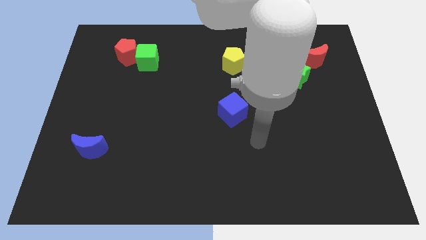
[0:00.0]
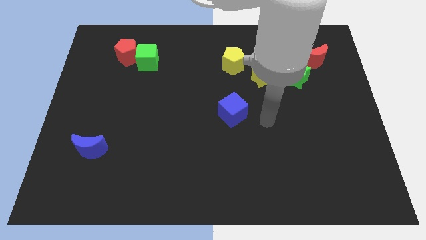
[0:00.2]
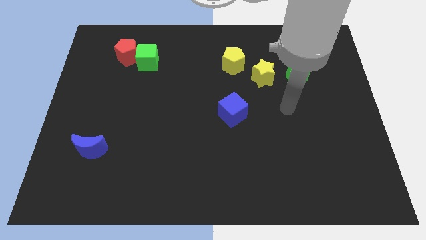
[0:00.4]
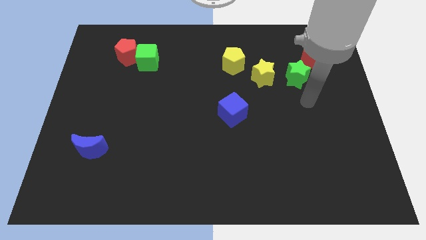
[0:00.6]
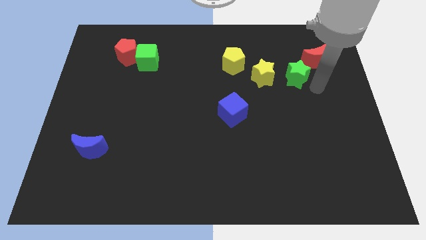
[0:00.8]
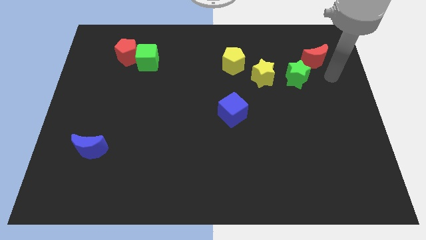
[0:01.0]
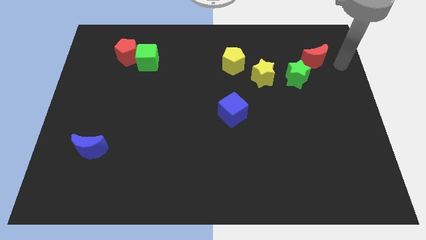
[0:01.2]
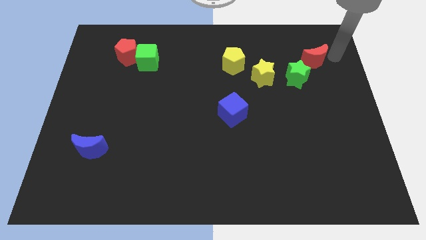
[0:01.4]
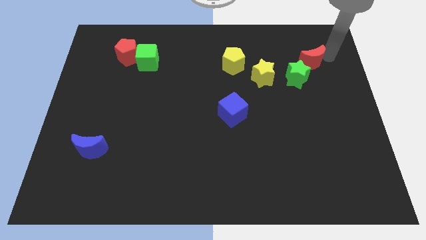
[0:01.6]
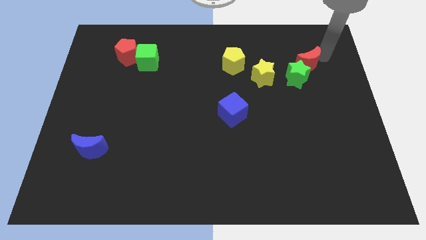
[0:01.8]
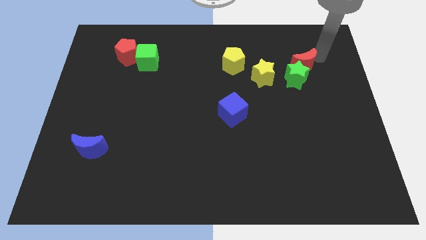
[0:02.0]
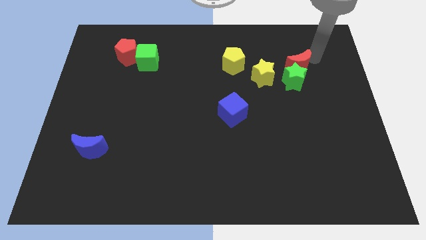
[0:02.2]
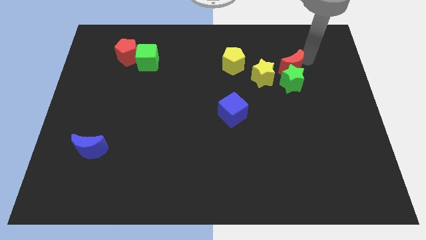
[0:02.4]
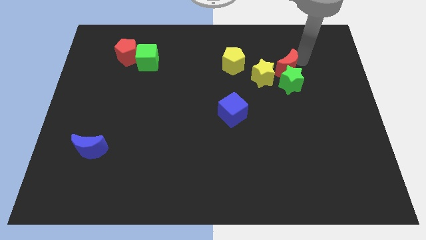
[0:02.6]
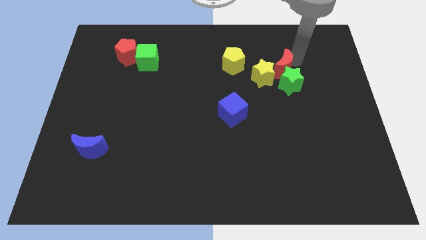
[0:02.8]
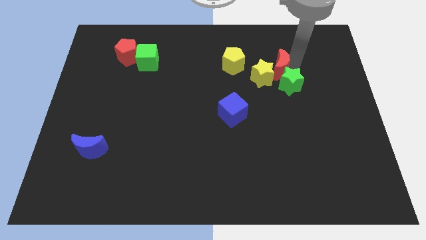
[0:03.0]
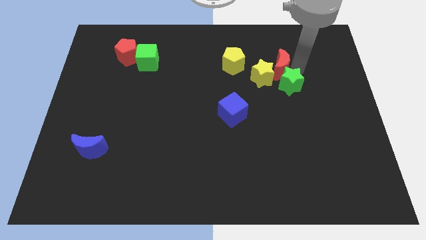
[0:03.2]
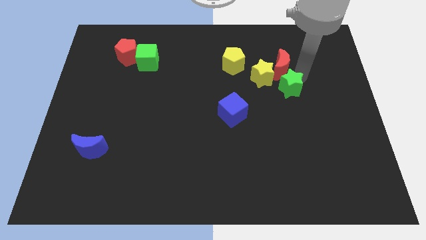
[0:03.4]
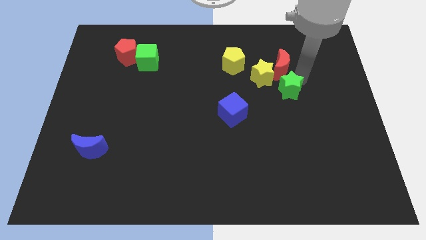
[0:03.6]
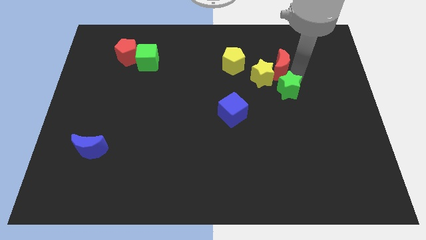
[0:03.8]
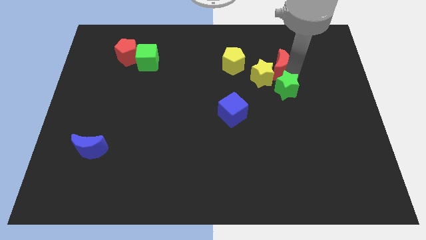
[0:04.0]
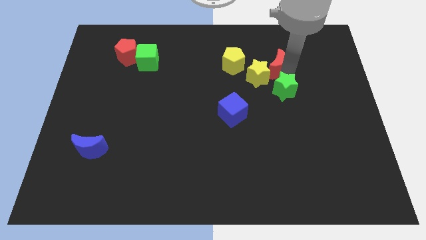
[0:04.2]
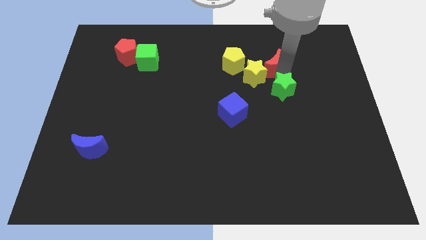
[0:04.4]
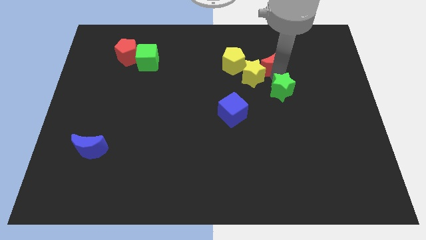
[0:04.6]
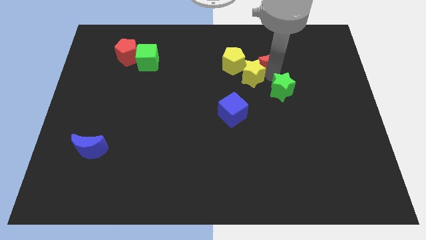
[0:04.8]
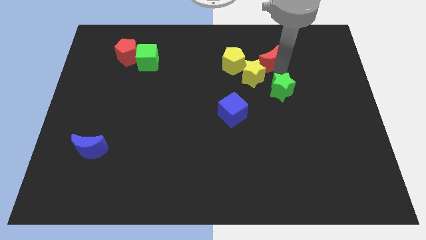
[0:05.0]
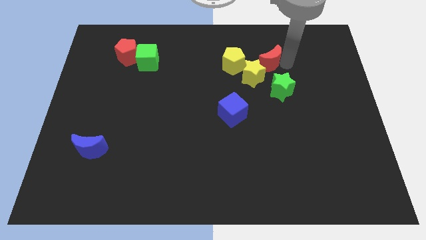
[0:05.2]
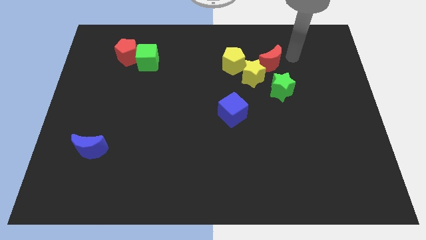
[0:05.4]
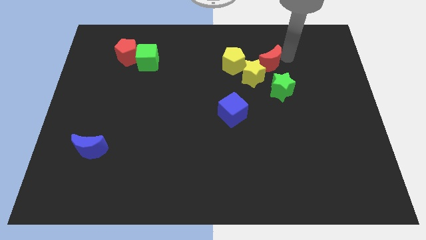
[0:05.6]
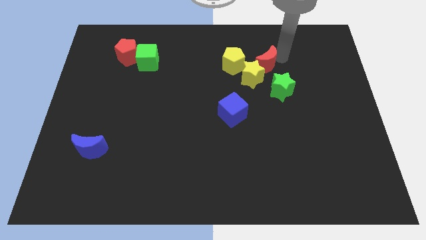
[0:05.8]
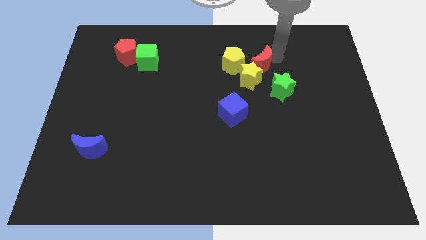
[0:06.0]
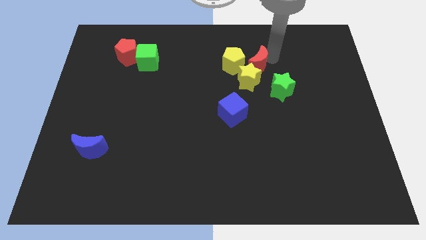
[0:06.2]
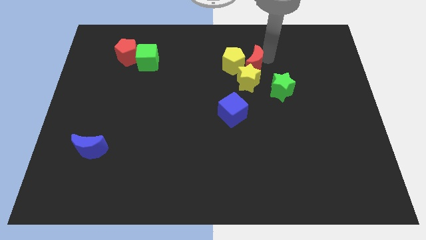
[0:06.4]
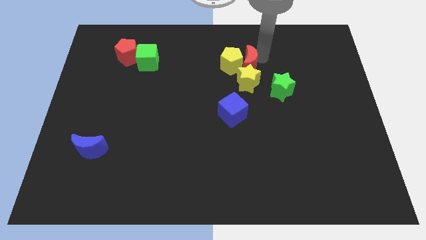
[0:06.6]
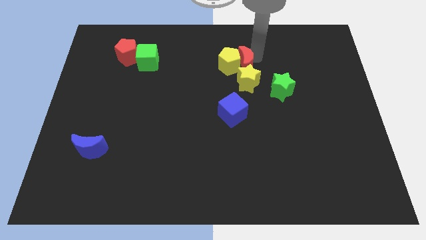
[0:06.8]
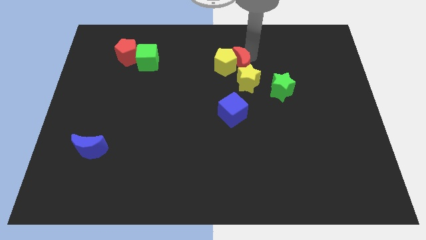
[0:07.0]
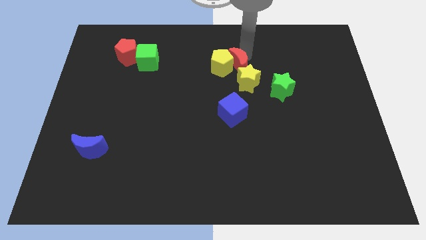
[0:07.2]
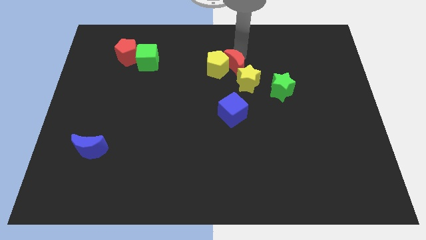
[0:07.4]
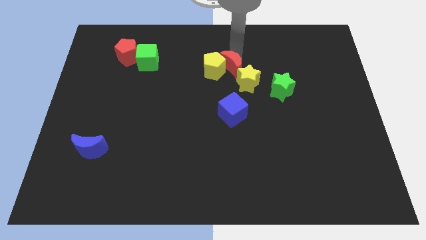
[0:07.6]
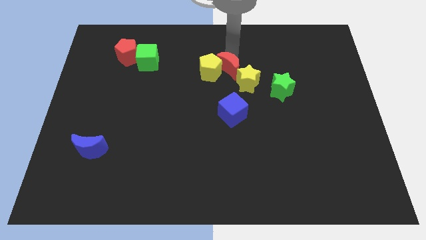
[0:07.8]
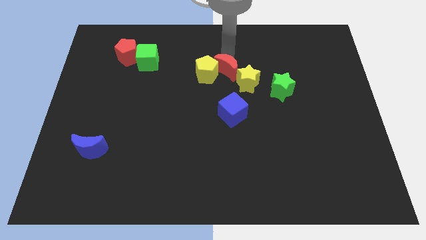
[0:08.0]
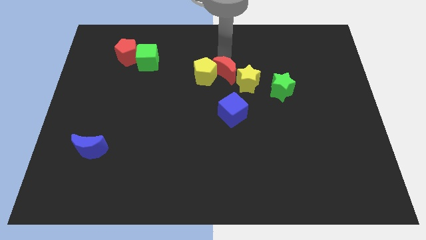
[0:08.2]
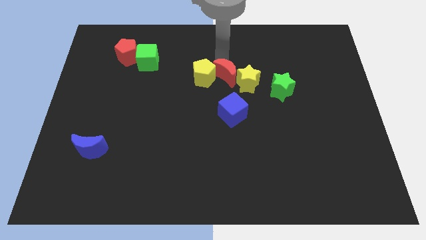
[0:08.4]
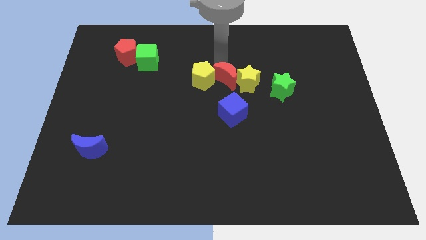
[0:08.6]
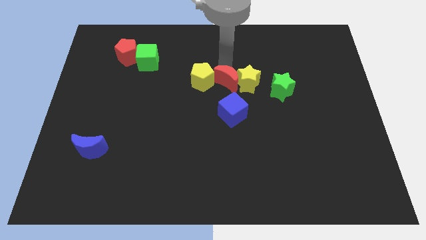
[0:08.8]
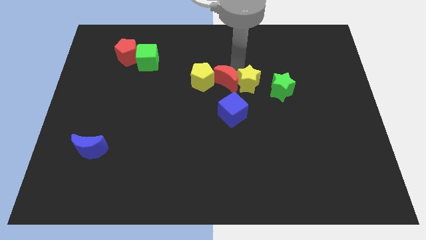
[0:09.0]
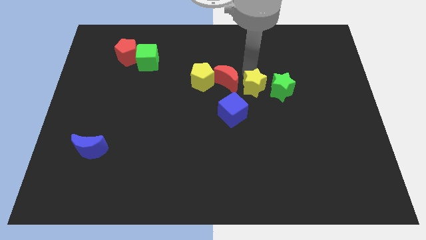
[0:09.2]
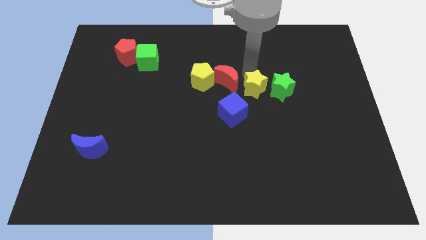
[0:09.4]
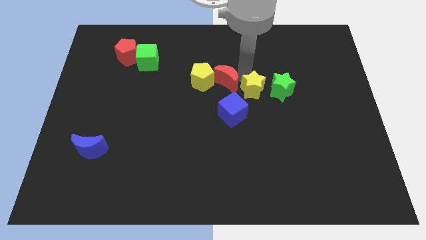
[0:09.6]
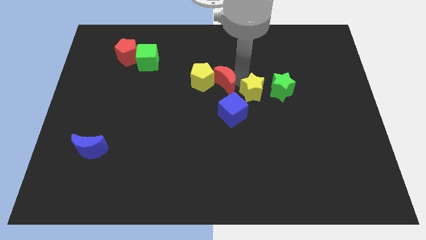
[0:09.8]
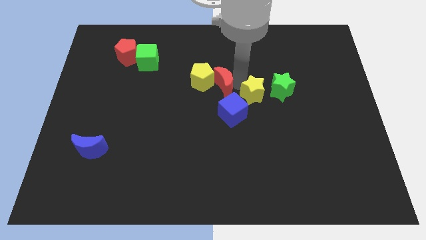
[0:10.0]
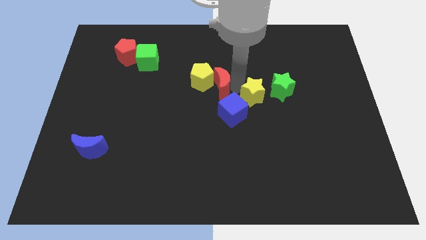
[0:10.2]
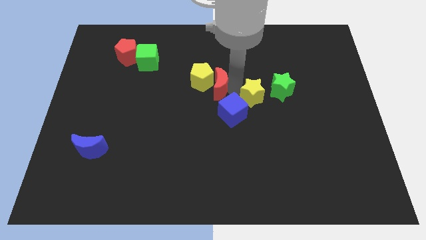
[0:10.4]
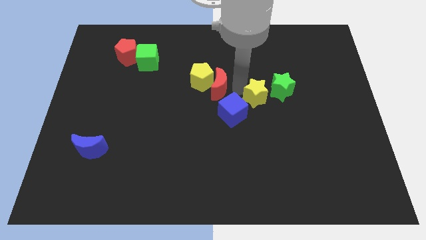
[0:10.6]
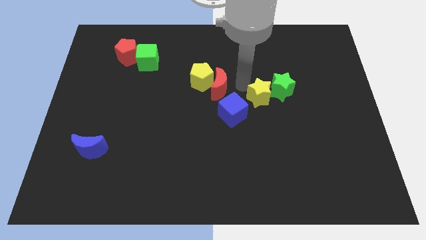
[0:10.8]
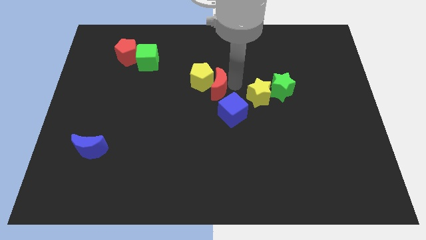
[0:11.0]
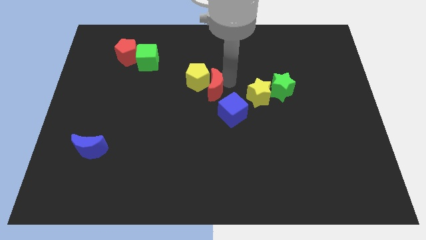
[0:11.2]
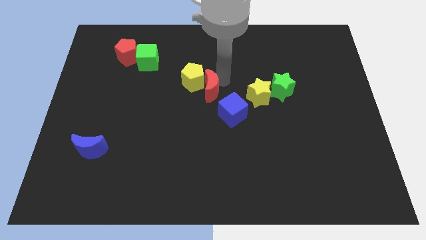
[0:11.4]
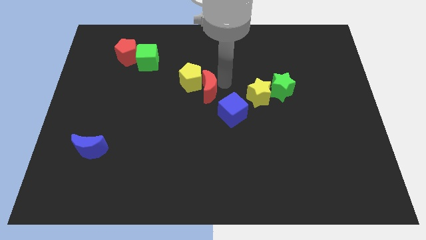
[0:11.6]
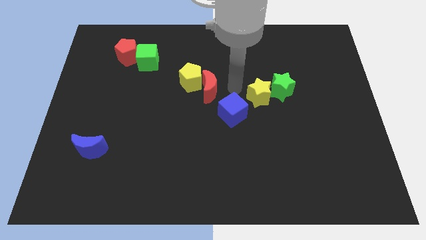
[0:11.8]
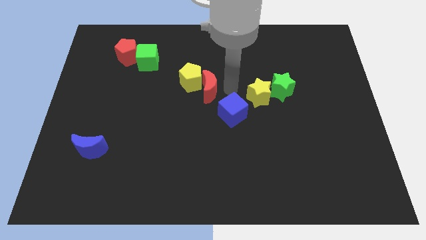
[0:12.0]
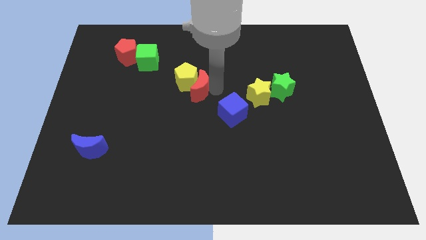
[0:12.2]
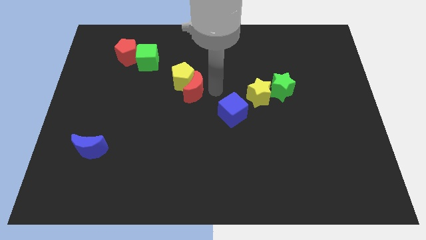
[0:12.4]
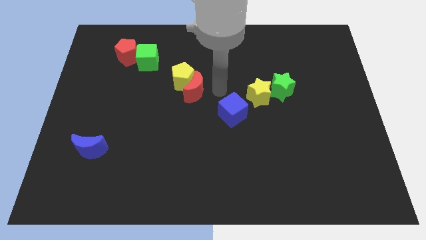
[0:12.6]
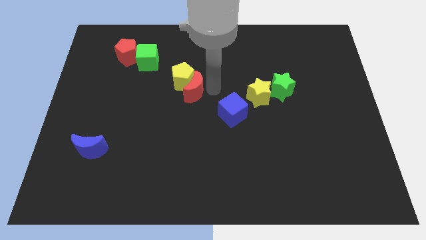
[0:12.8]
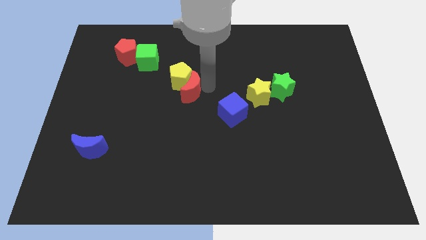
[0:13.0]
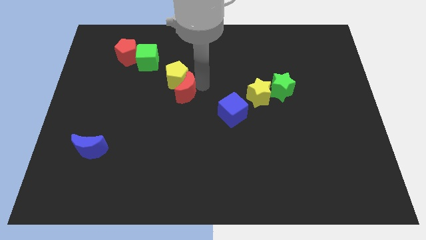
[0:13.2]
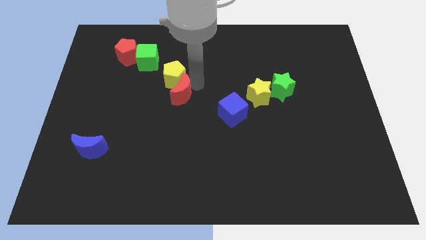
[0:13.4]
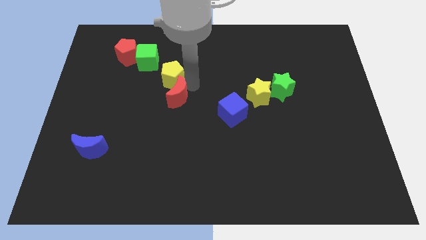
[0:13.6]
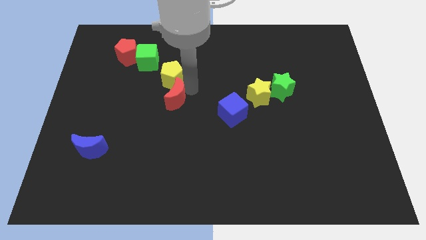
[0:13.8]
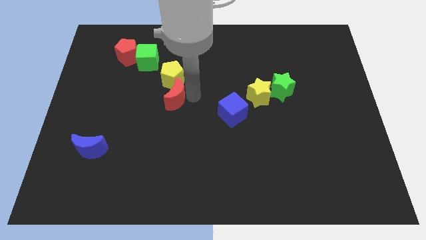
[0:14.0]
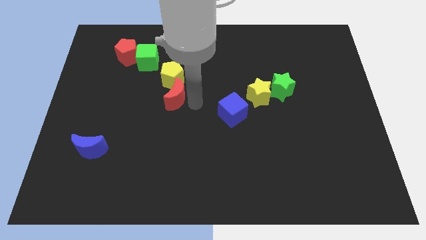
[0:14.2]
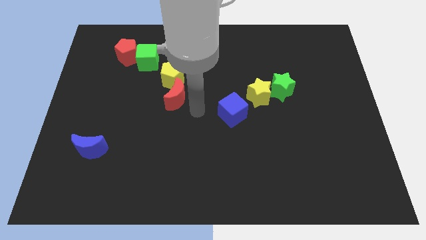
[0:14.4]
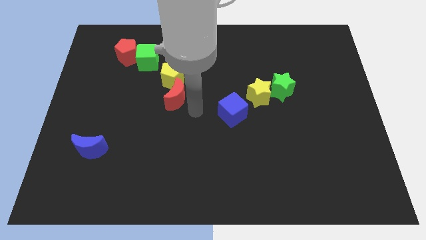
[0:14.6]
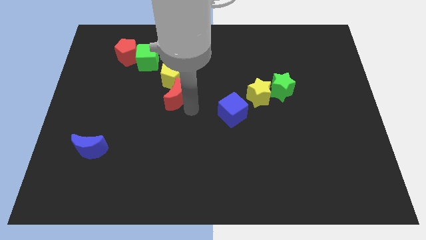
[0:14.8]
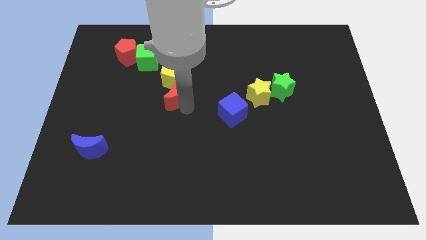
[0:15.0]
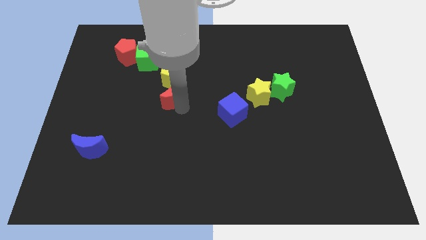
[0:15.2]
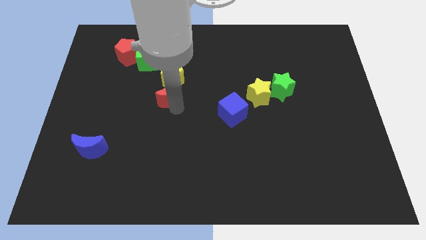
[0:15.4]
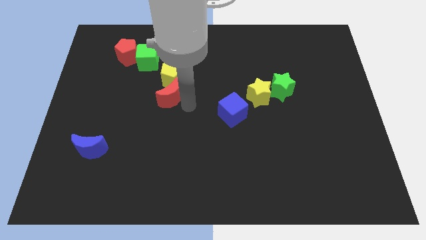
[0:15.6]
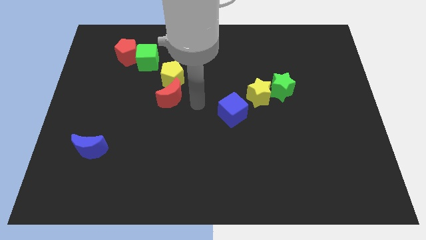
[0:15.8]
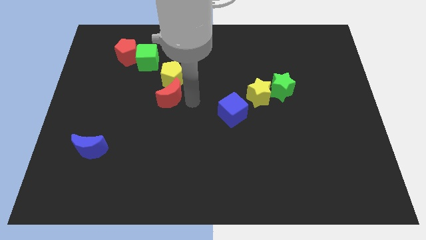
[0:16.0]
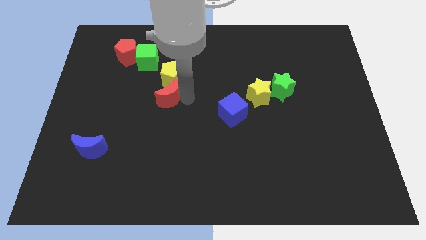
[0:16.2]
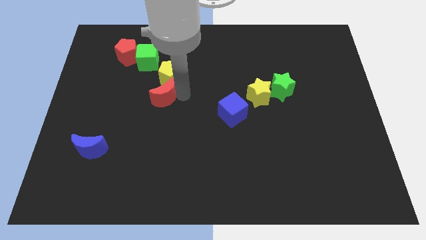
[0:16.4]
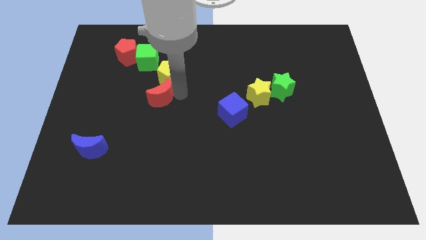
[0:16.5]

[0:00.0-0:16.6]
move the red moon below the green cube
